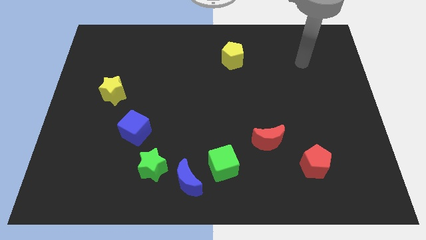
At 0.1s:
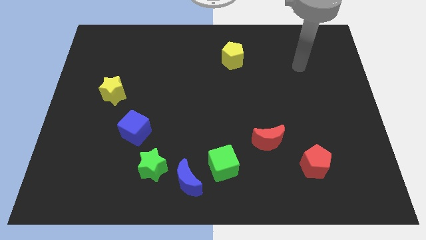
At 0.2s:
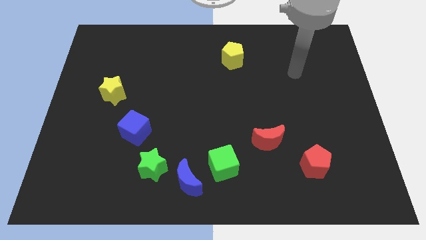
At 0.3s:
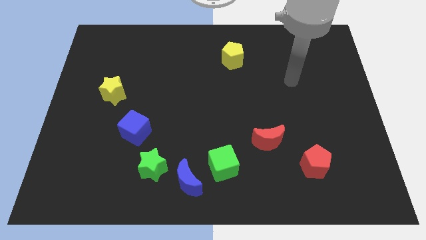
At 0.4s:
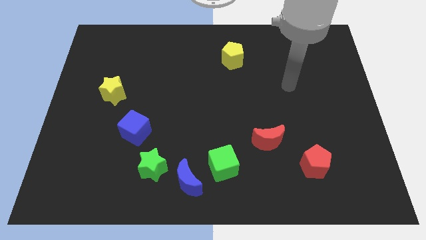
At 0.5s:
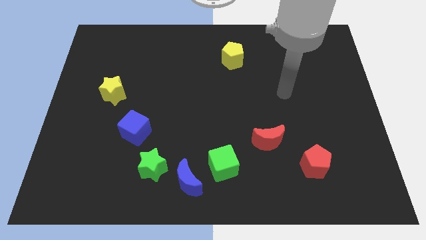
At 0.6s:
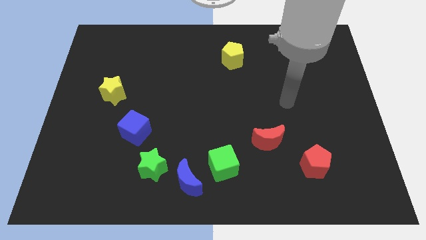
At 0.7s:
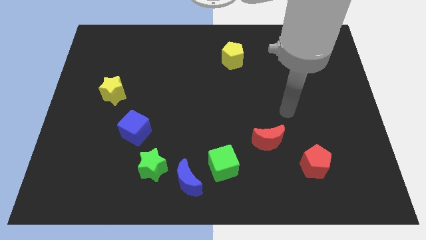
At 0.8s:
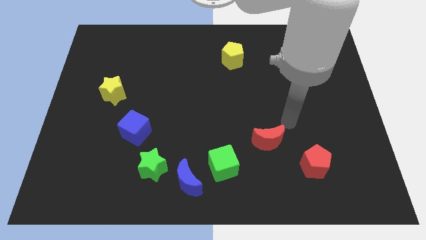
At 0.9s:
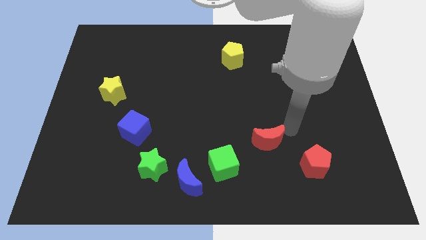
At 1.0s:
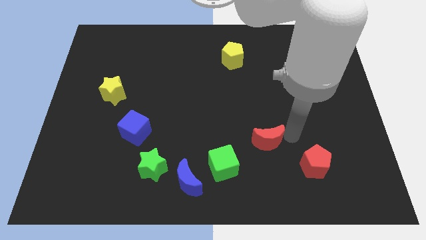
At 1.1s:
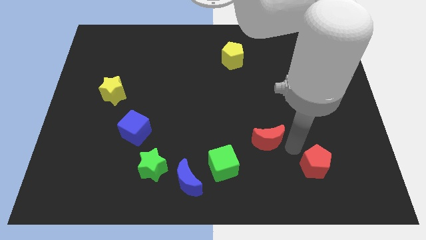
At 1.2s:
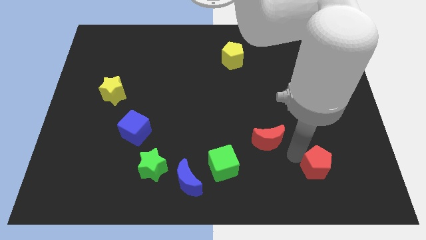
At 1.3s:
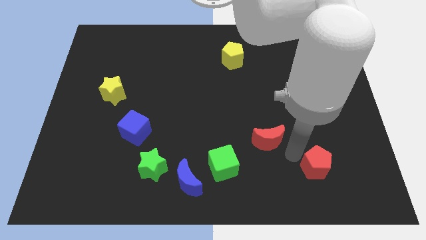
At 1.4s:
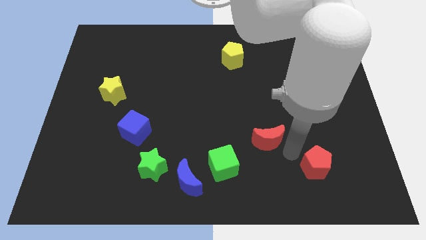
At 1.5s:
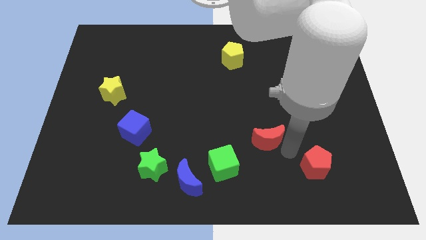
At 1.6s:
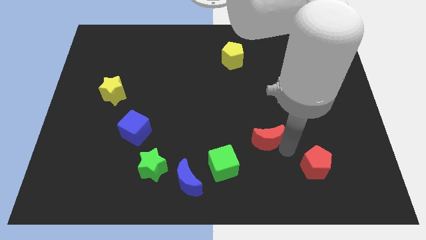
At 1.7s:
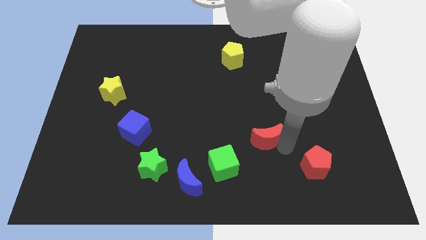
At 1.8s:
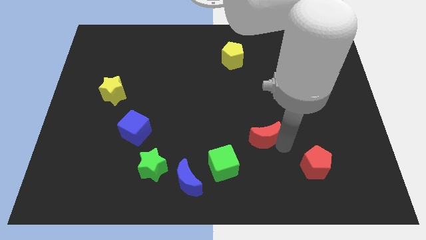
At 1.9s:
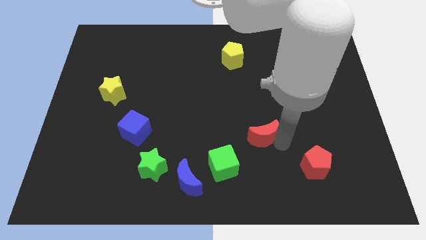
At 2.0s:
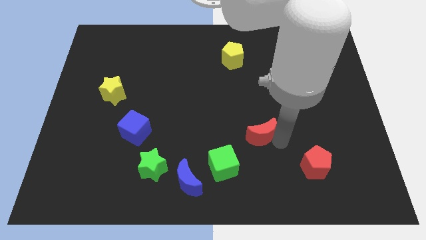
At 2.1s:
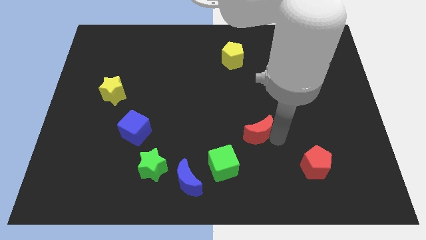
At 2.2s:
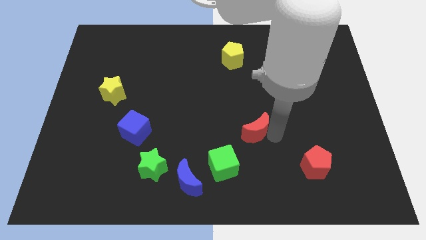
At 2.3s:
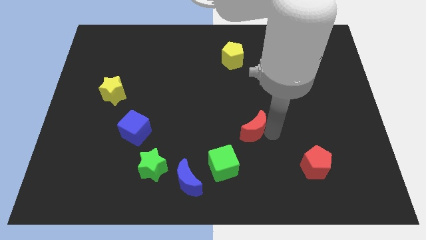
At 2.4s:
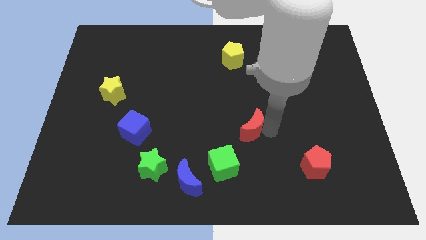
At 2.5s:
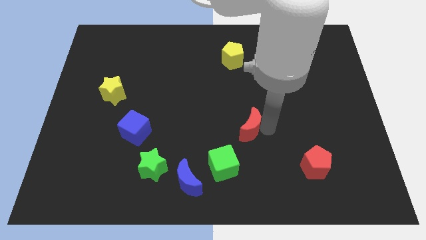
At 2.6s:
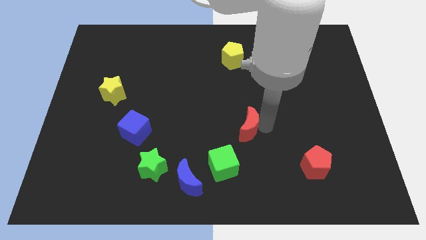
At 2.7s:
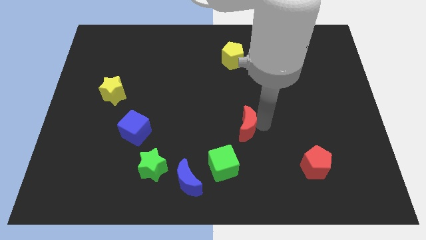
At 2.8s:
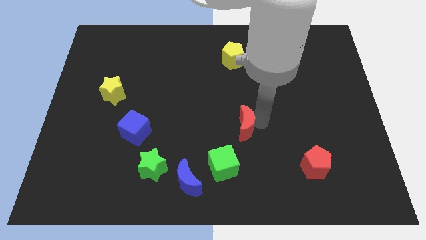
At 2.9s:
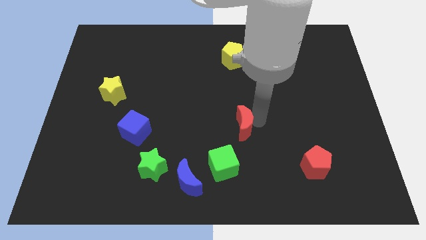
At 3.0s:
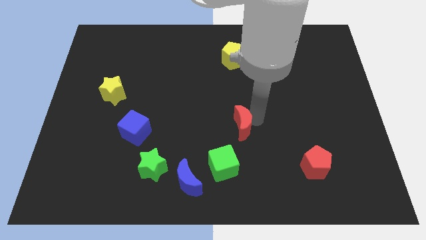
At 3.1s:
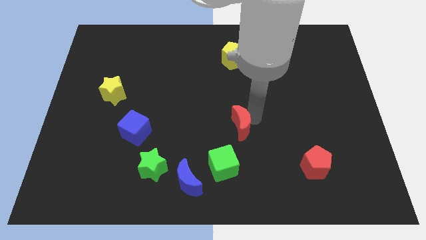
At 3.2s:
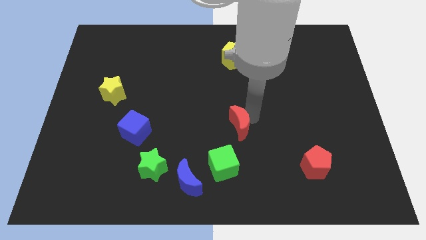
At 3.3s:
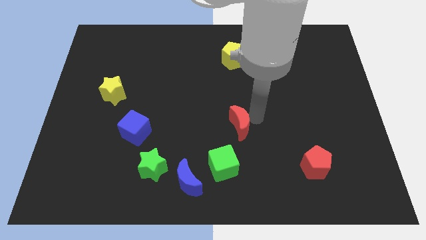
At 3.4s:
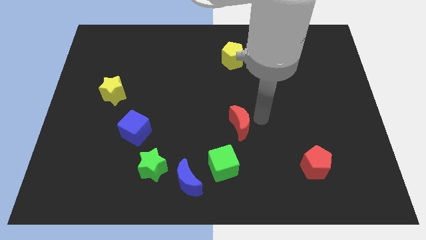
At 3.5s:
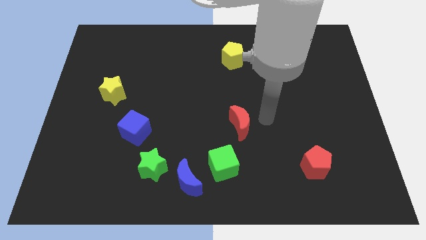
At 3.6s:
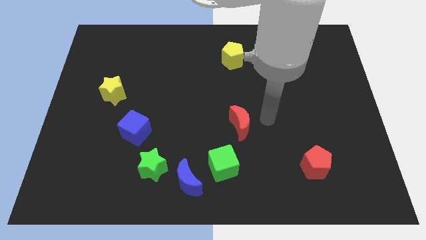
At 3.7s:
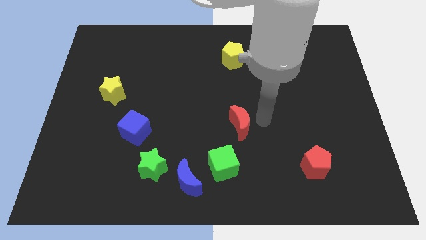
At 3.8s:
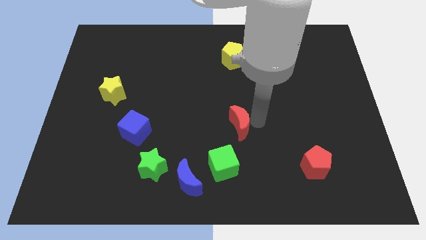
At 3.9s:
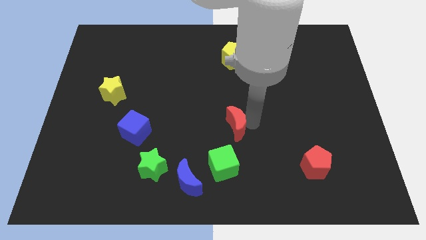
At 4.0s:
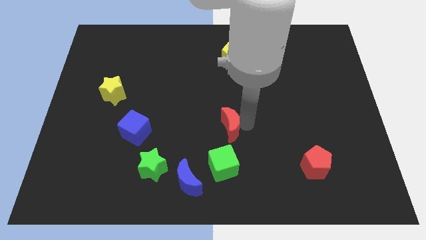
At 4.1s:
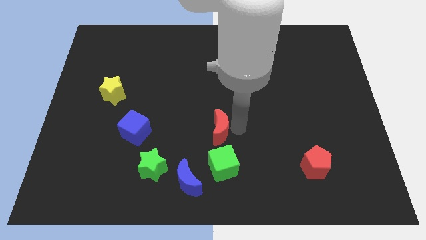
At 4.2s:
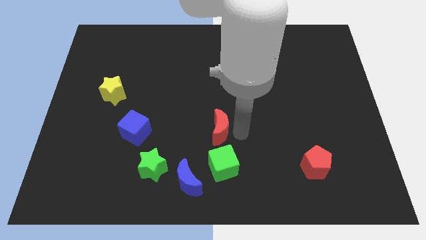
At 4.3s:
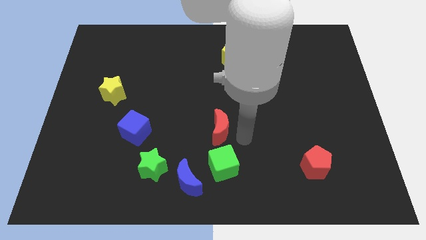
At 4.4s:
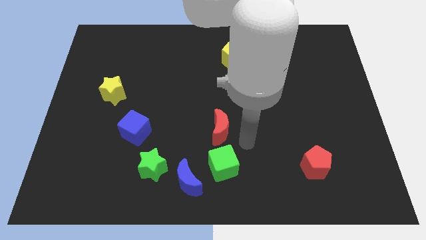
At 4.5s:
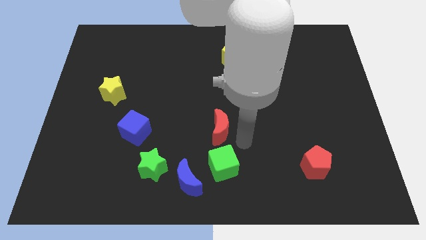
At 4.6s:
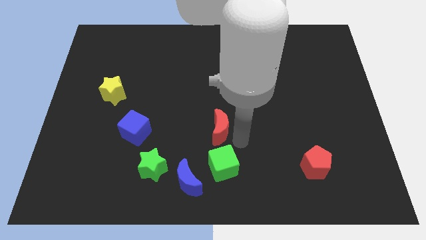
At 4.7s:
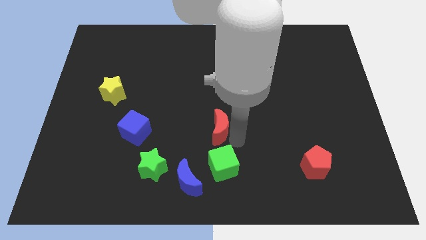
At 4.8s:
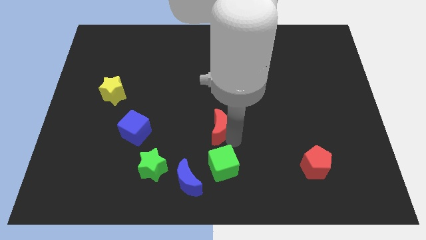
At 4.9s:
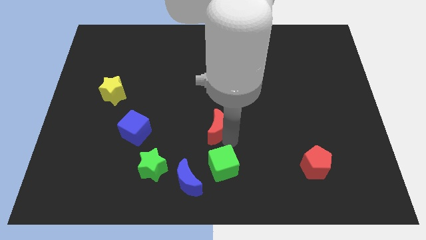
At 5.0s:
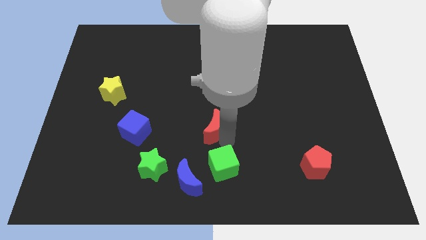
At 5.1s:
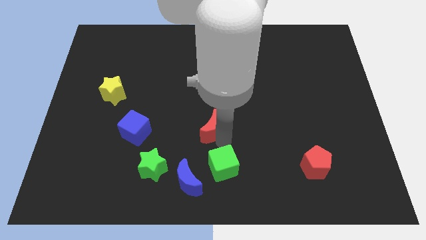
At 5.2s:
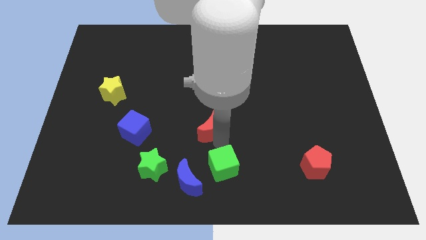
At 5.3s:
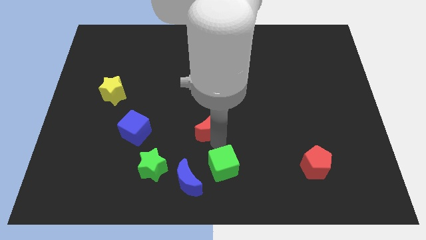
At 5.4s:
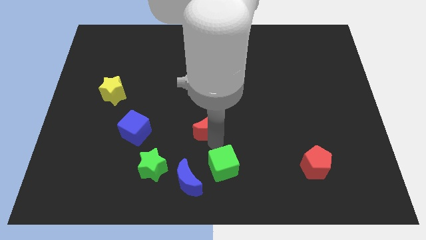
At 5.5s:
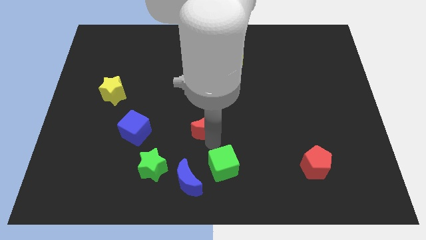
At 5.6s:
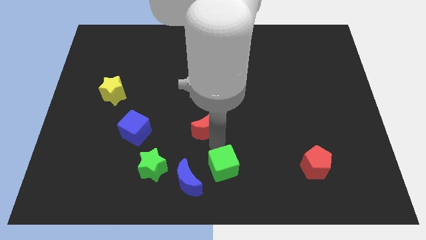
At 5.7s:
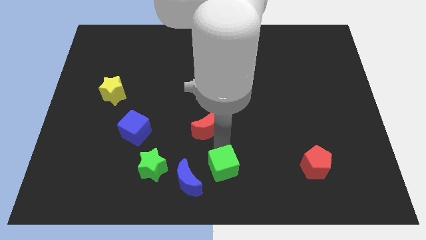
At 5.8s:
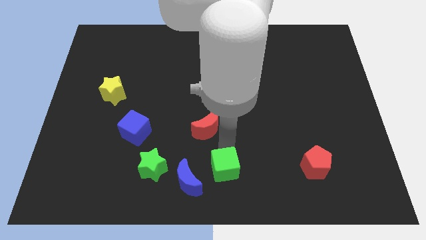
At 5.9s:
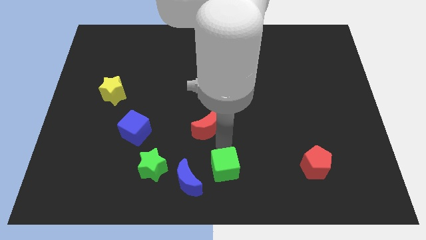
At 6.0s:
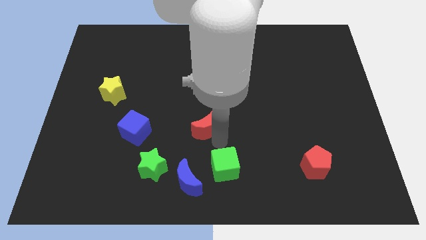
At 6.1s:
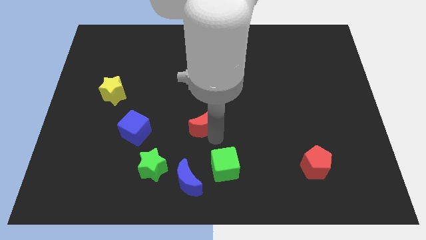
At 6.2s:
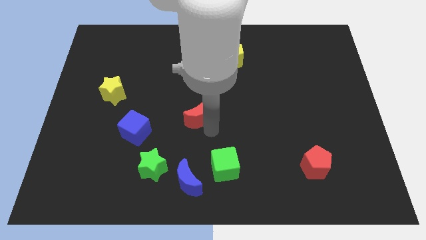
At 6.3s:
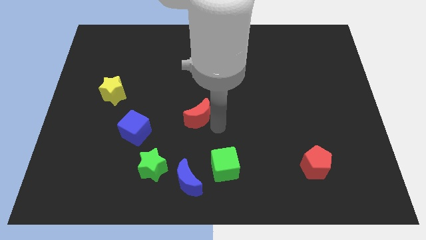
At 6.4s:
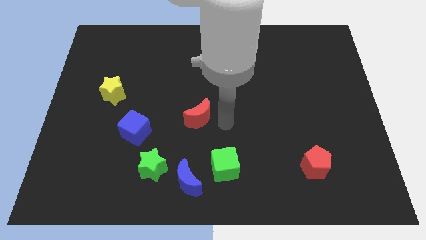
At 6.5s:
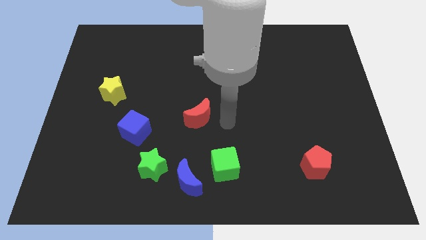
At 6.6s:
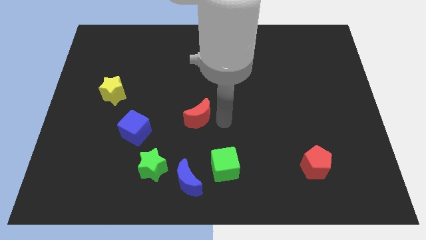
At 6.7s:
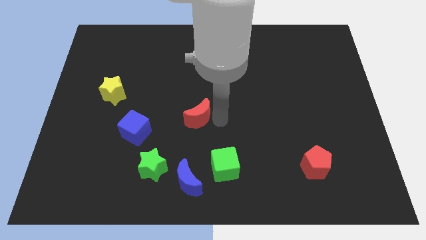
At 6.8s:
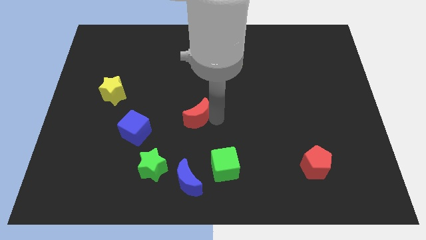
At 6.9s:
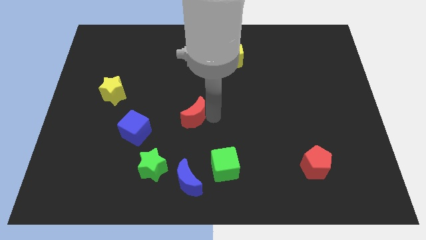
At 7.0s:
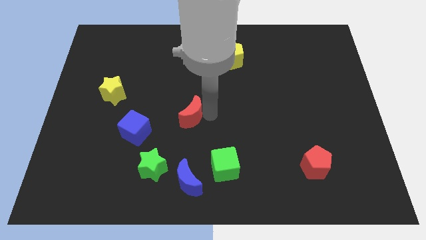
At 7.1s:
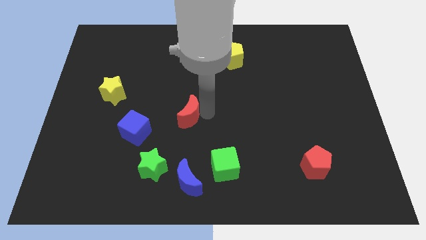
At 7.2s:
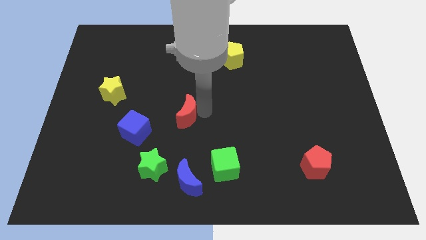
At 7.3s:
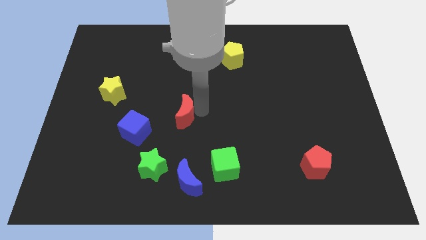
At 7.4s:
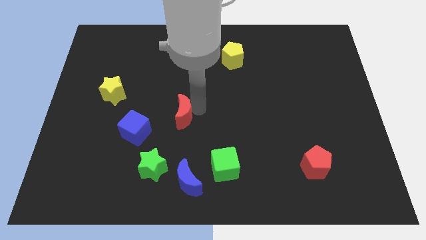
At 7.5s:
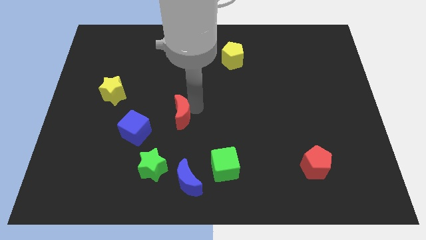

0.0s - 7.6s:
put the red moon diagonally up and to the right of the blue cube
